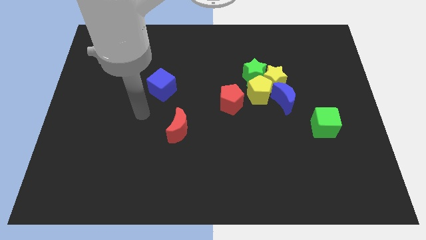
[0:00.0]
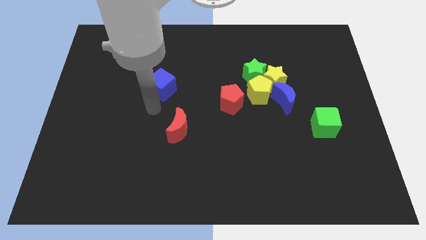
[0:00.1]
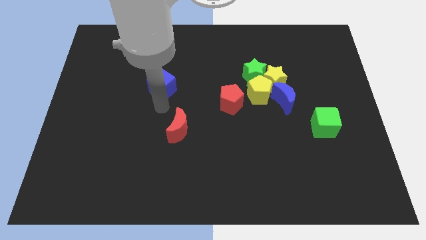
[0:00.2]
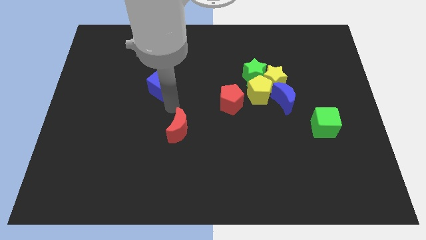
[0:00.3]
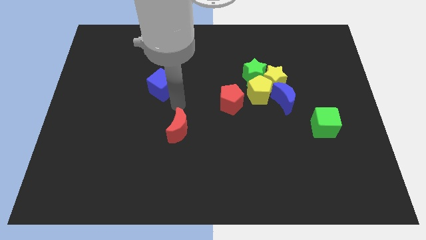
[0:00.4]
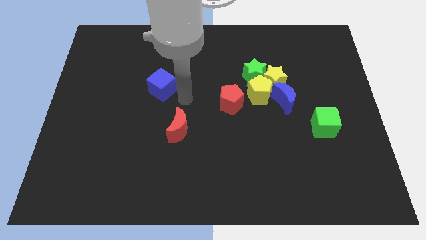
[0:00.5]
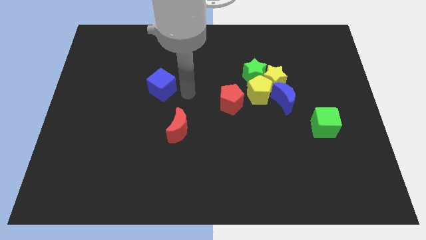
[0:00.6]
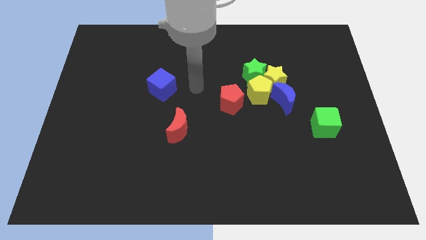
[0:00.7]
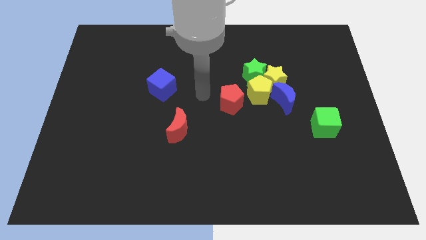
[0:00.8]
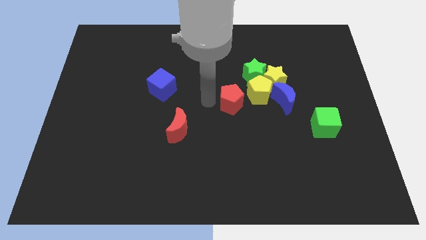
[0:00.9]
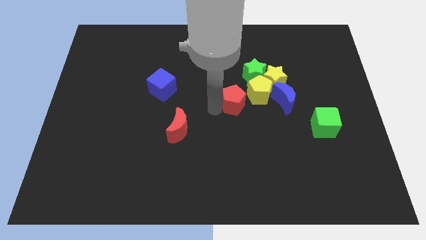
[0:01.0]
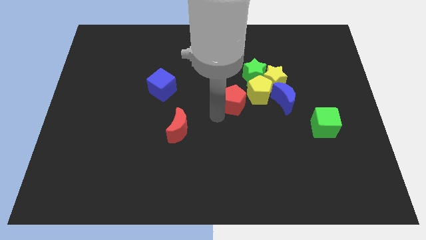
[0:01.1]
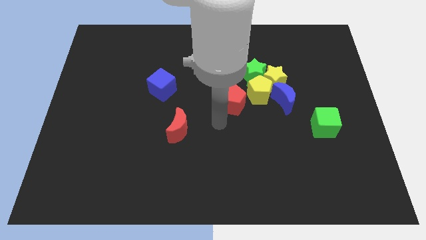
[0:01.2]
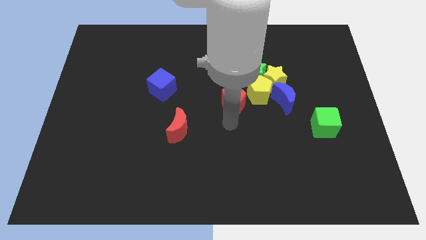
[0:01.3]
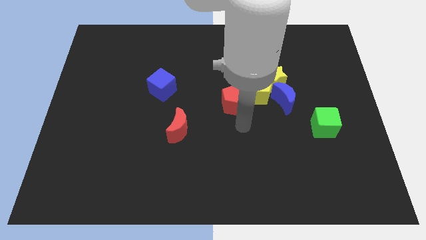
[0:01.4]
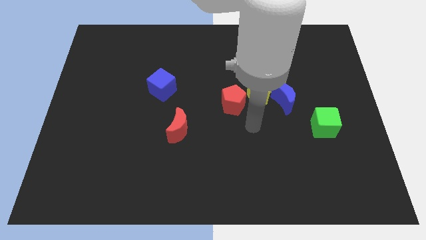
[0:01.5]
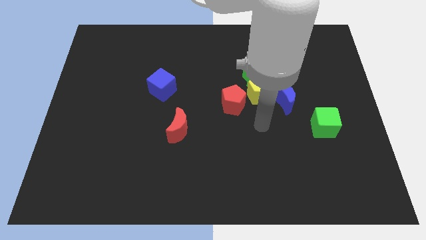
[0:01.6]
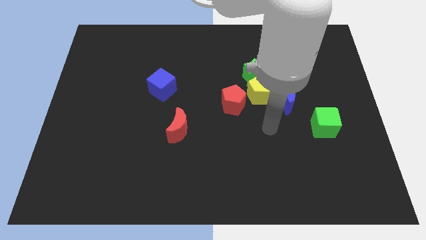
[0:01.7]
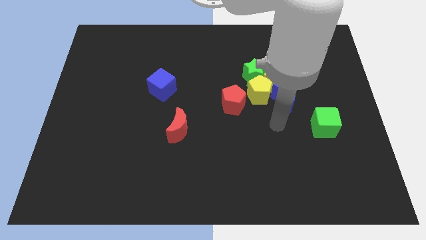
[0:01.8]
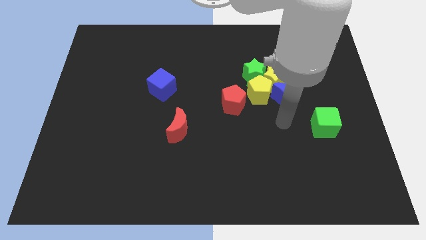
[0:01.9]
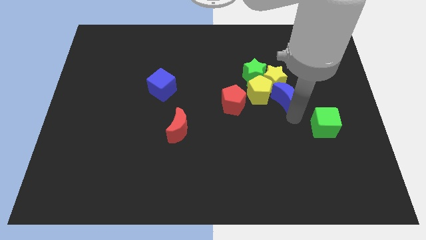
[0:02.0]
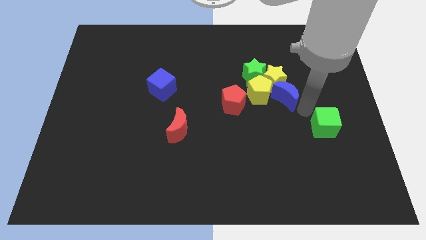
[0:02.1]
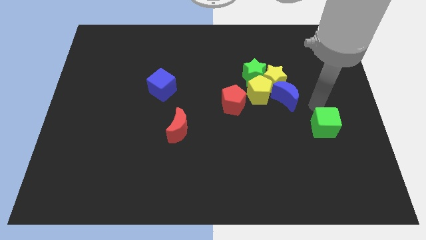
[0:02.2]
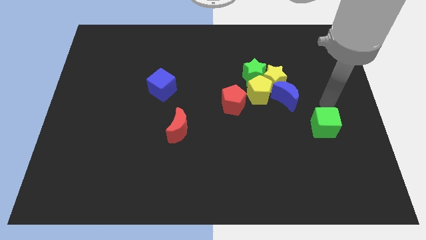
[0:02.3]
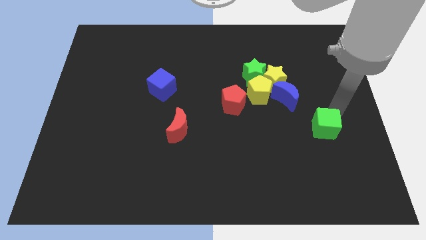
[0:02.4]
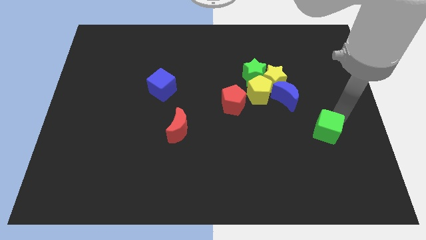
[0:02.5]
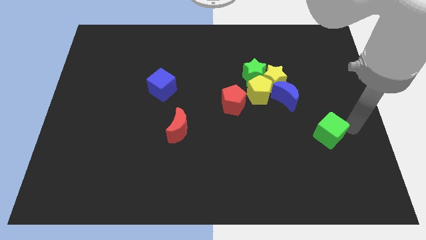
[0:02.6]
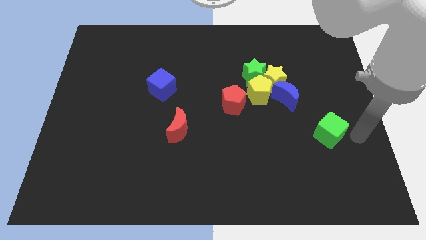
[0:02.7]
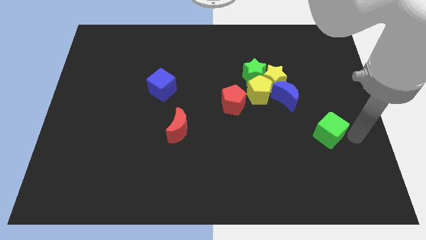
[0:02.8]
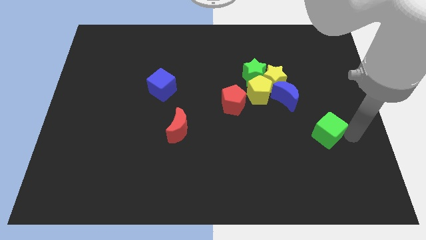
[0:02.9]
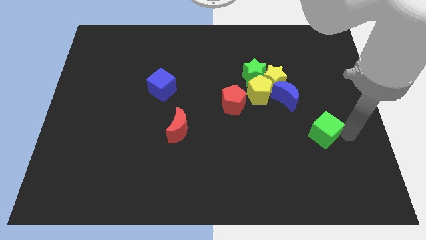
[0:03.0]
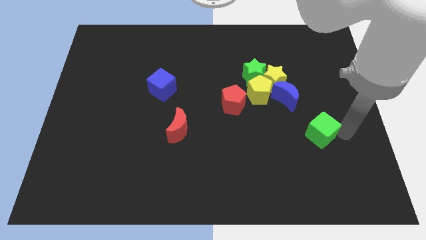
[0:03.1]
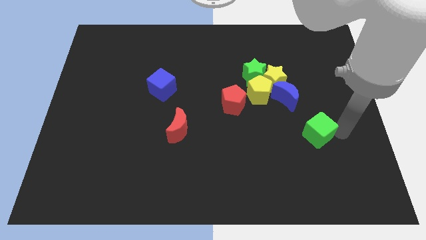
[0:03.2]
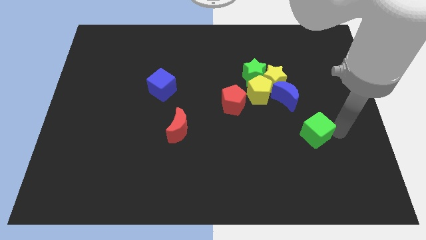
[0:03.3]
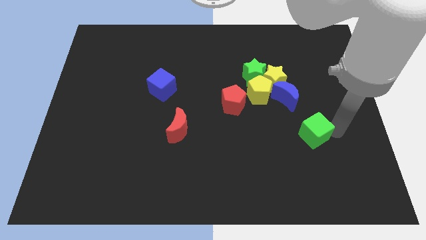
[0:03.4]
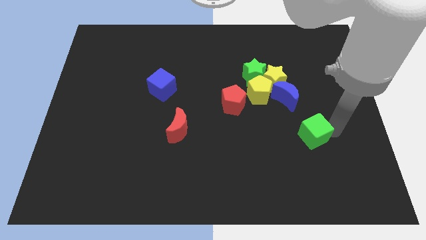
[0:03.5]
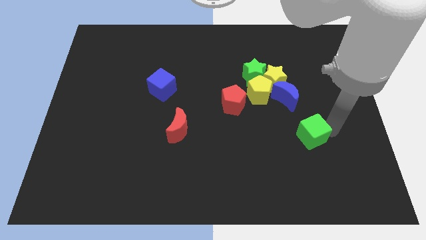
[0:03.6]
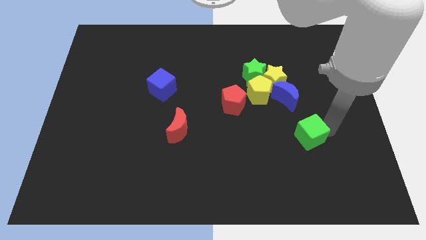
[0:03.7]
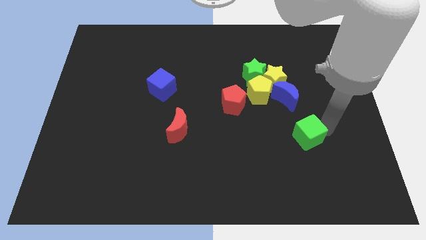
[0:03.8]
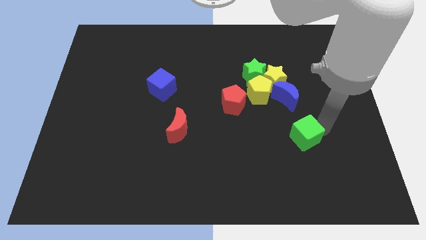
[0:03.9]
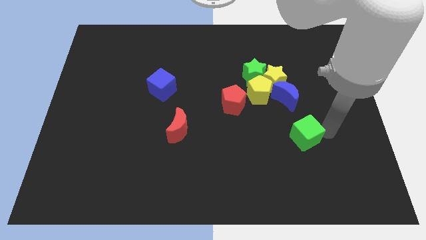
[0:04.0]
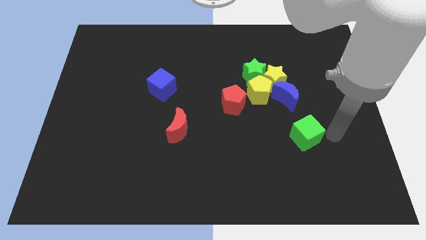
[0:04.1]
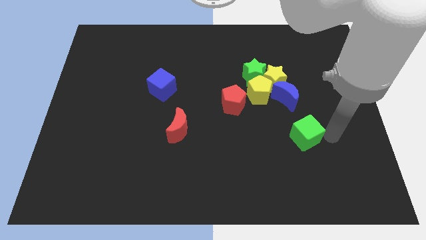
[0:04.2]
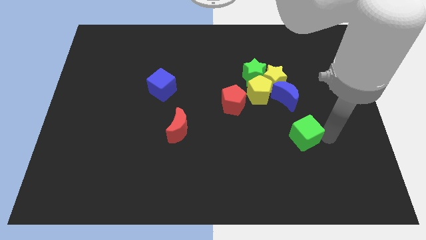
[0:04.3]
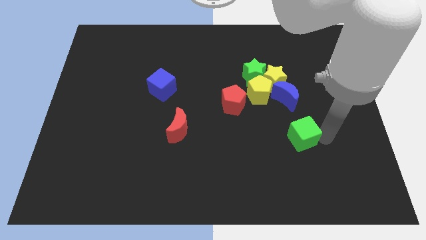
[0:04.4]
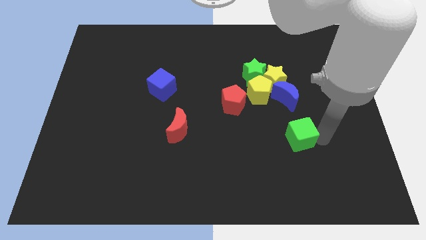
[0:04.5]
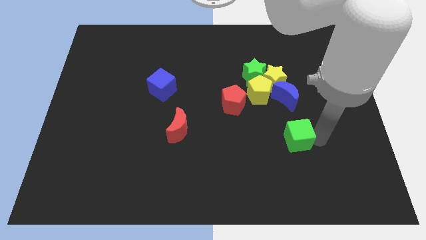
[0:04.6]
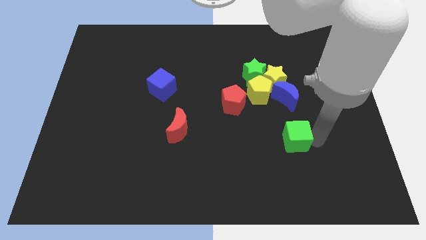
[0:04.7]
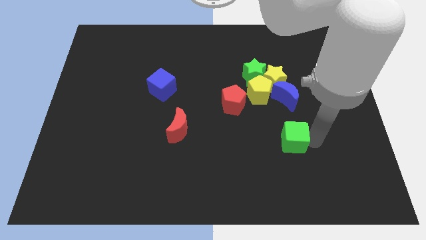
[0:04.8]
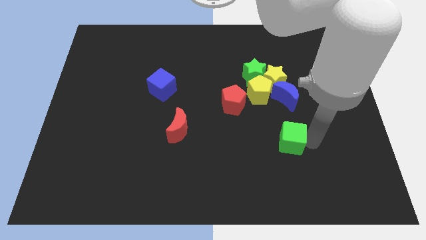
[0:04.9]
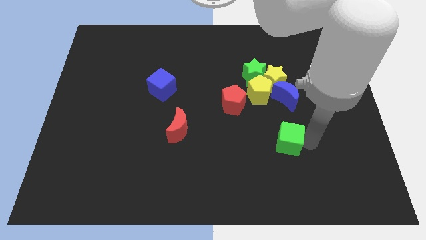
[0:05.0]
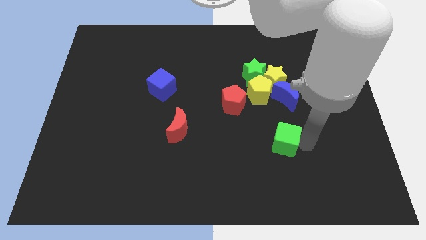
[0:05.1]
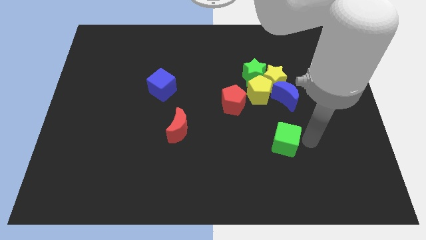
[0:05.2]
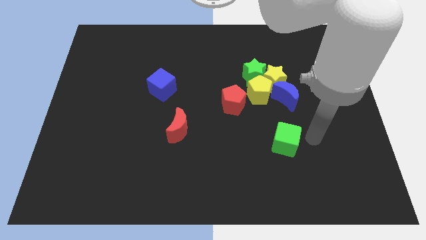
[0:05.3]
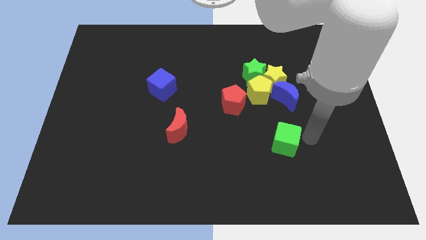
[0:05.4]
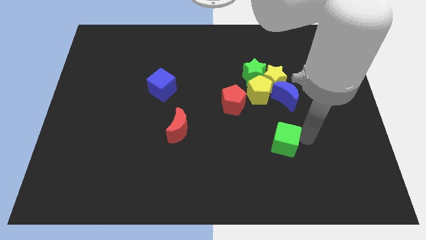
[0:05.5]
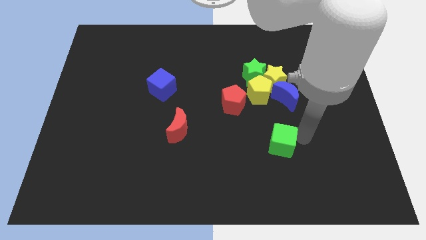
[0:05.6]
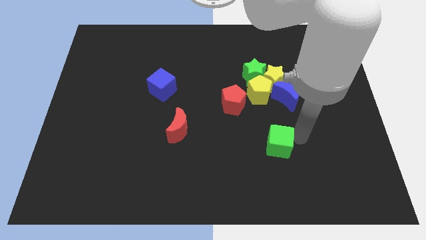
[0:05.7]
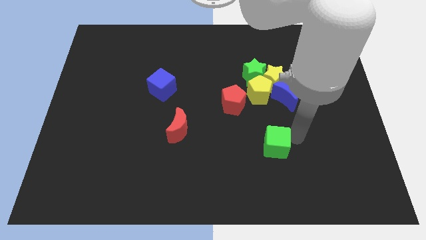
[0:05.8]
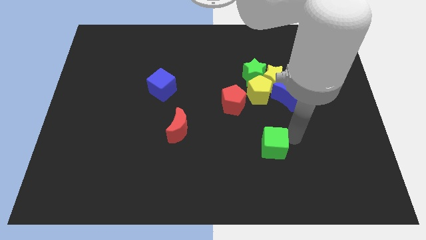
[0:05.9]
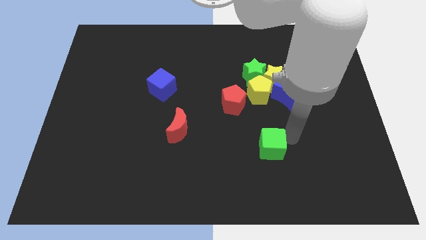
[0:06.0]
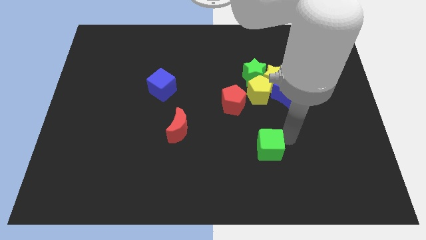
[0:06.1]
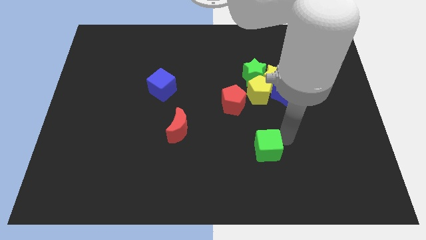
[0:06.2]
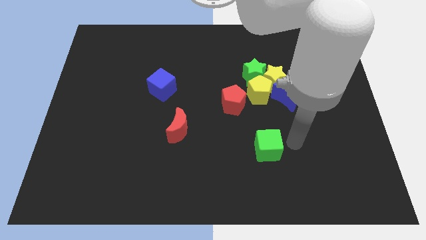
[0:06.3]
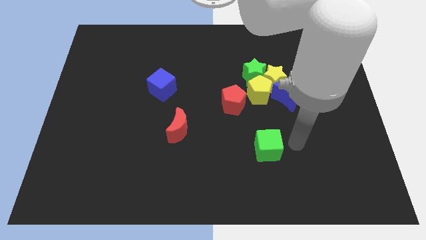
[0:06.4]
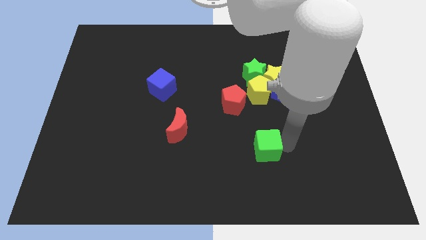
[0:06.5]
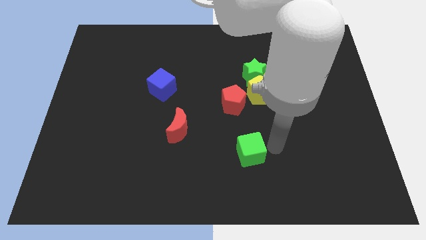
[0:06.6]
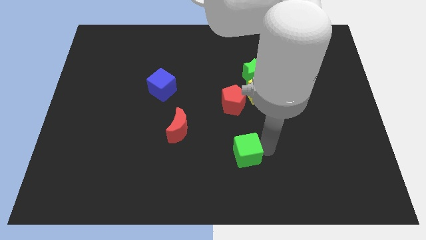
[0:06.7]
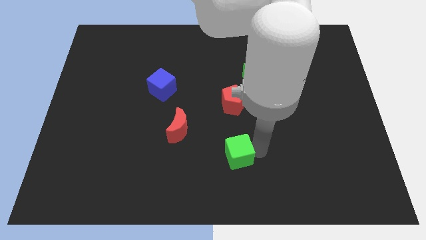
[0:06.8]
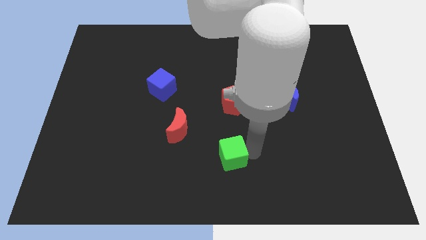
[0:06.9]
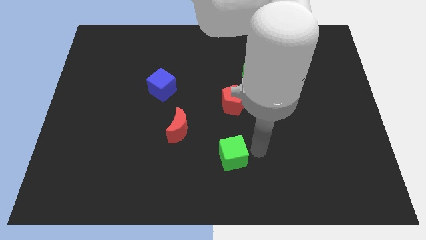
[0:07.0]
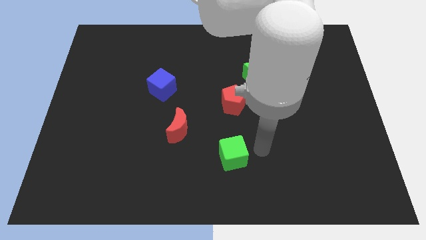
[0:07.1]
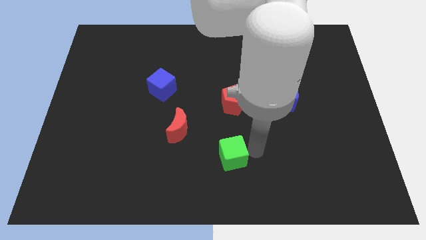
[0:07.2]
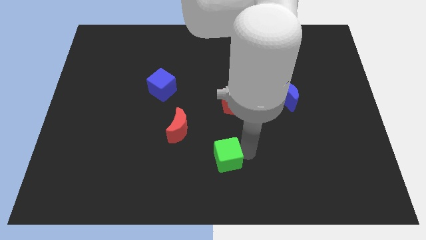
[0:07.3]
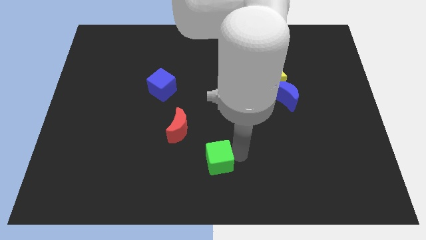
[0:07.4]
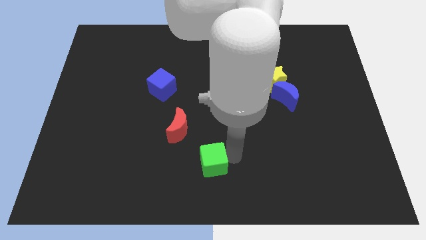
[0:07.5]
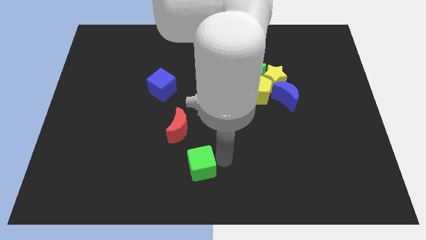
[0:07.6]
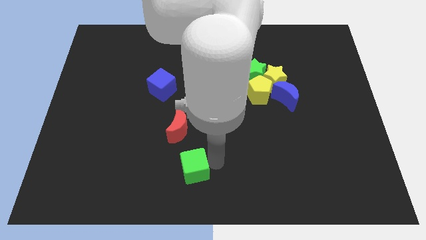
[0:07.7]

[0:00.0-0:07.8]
slide the green cube to the bottom side of the red moon

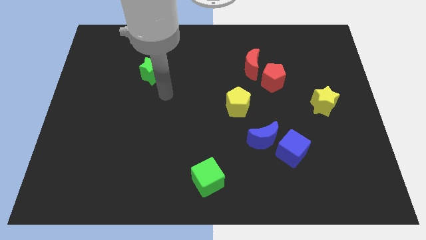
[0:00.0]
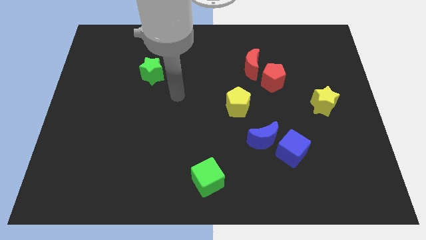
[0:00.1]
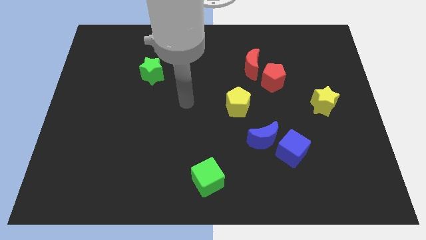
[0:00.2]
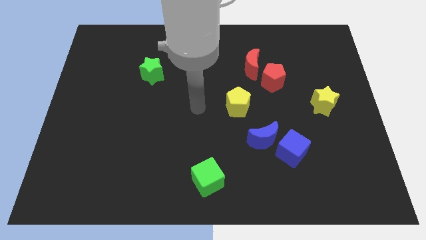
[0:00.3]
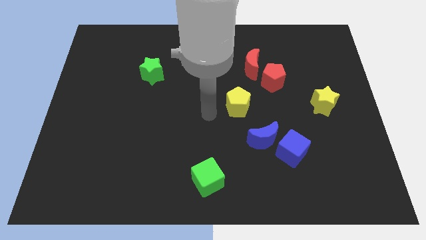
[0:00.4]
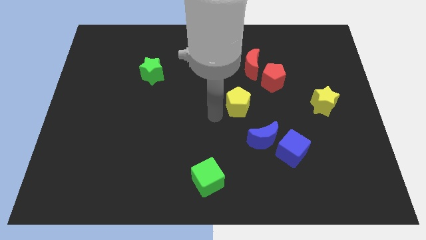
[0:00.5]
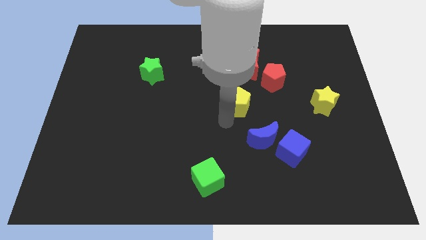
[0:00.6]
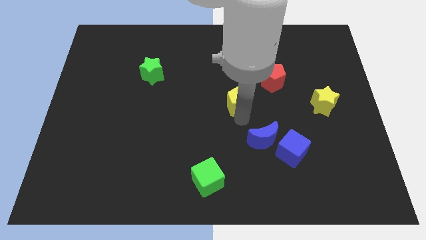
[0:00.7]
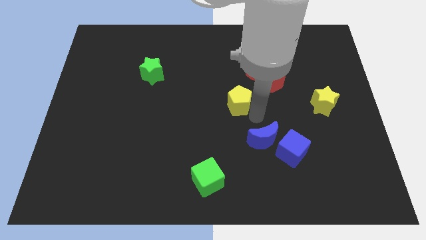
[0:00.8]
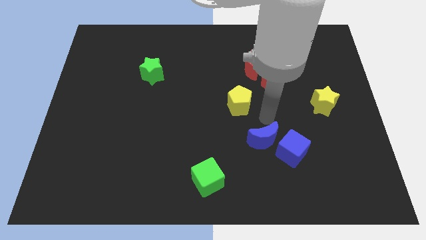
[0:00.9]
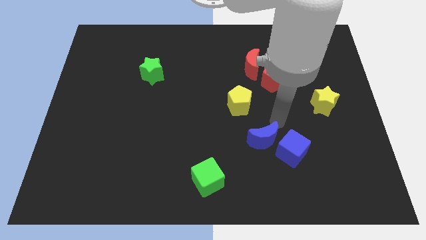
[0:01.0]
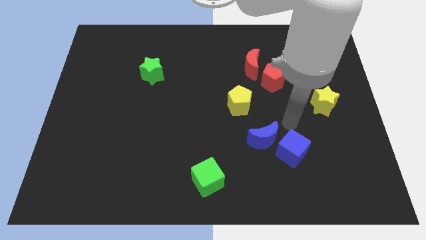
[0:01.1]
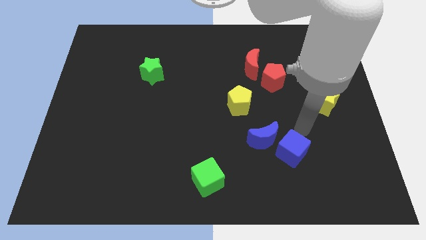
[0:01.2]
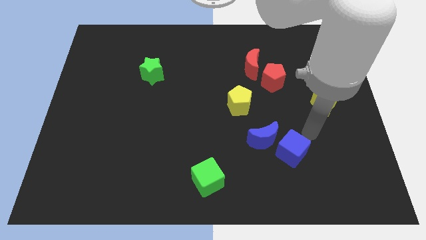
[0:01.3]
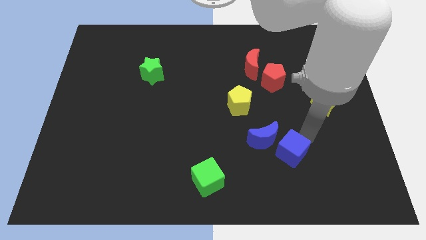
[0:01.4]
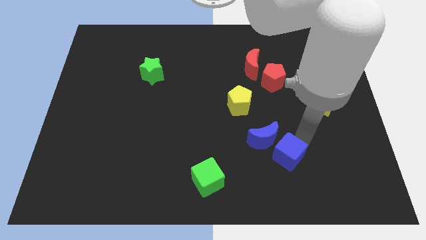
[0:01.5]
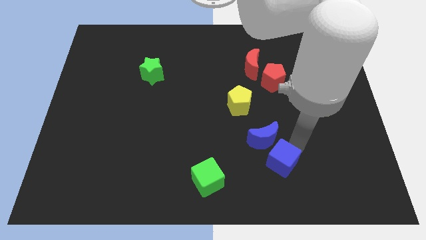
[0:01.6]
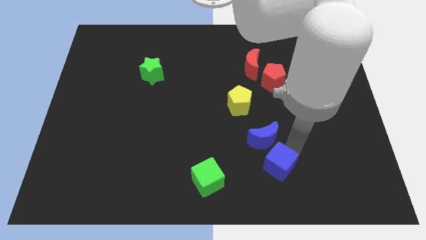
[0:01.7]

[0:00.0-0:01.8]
put the blue cube just right of the green cube
